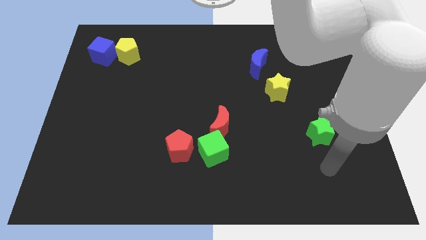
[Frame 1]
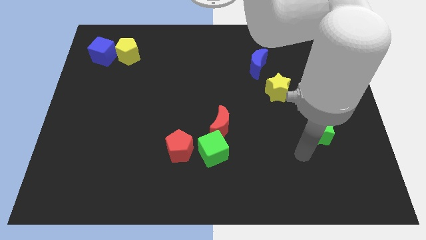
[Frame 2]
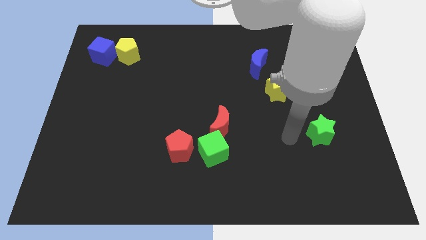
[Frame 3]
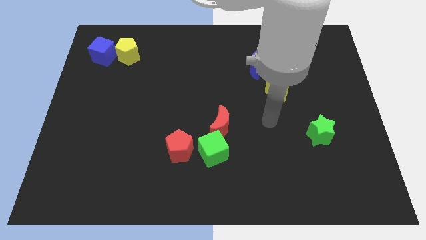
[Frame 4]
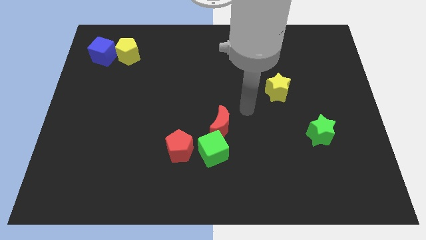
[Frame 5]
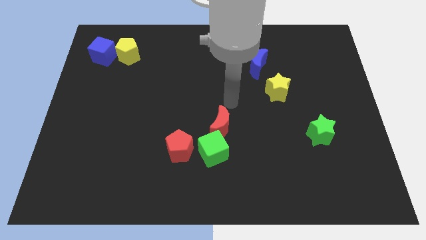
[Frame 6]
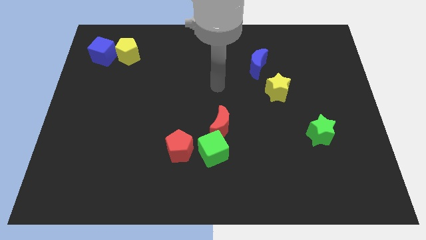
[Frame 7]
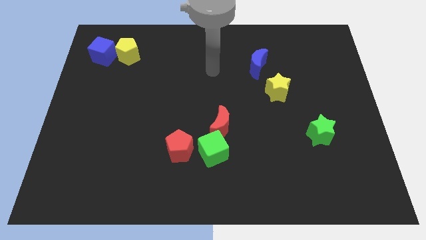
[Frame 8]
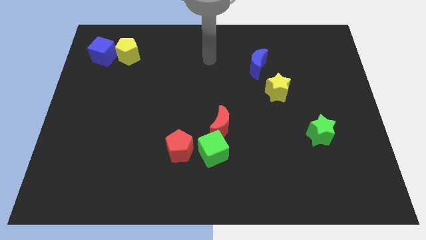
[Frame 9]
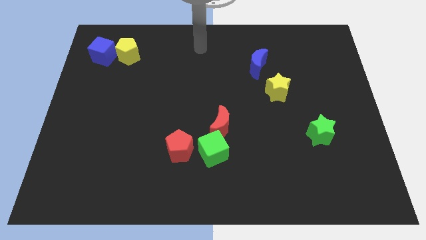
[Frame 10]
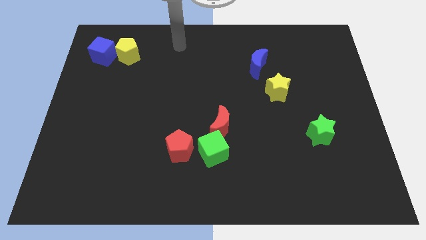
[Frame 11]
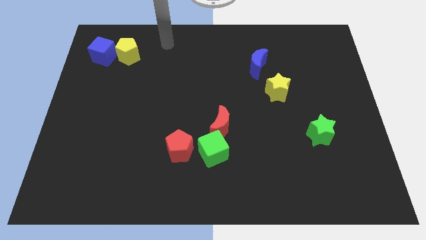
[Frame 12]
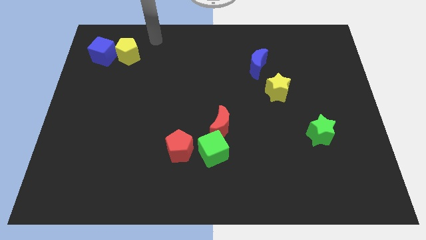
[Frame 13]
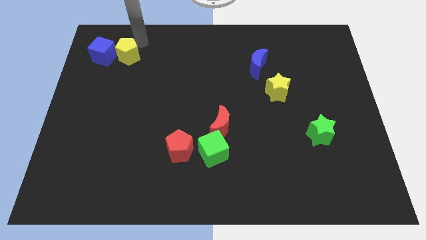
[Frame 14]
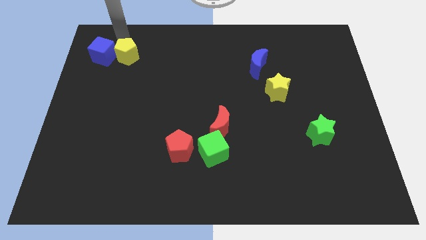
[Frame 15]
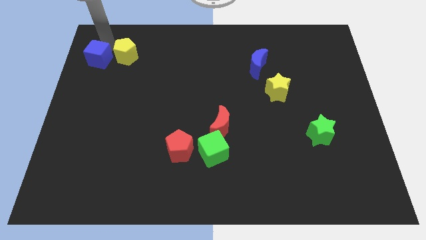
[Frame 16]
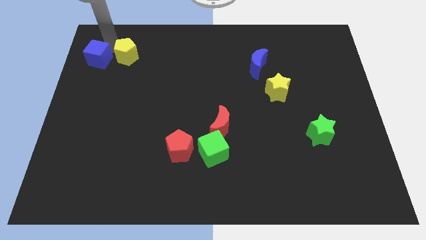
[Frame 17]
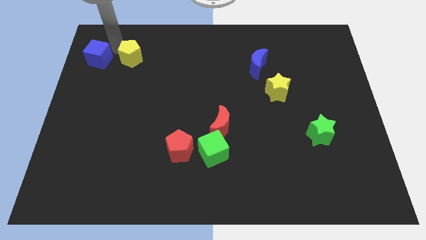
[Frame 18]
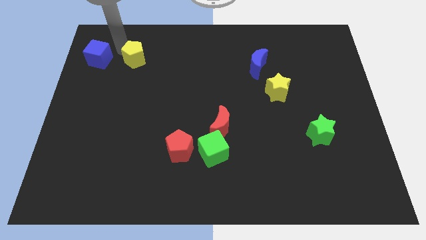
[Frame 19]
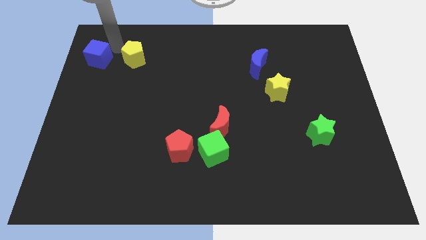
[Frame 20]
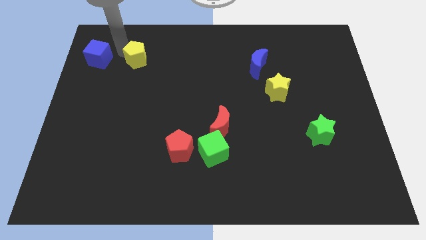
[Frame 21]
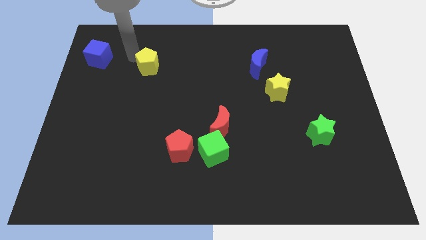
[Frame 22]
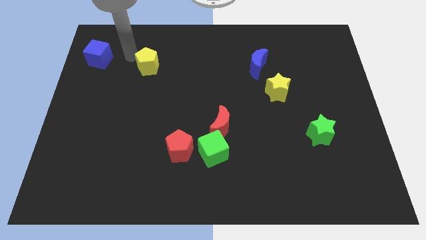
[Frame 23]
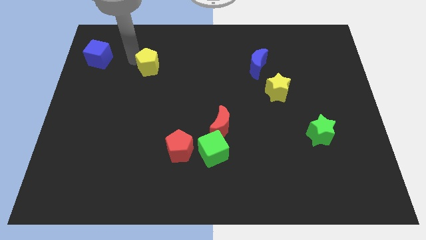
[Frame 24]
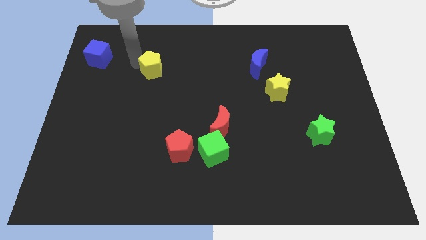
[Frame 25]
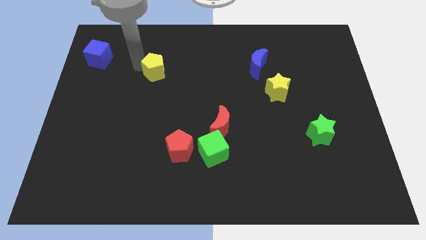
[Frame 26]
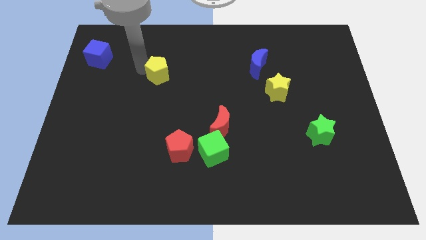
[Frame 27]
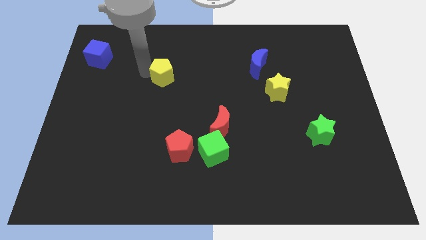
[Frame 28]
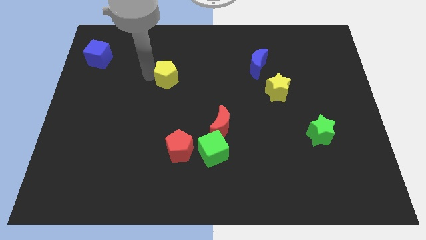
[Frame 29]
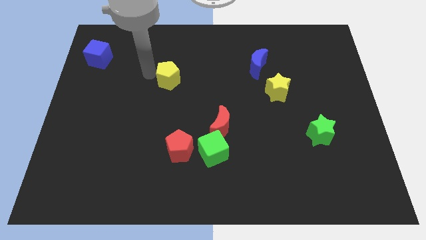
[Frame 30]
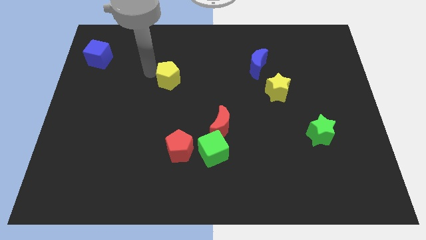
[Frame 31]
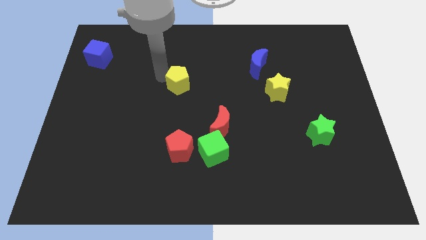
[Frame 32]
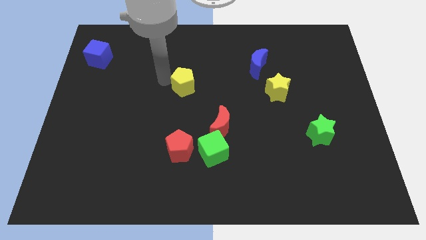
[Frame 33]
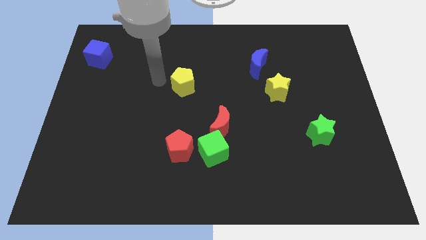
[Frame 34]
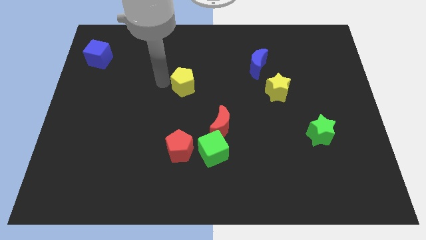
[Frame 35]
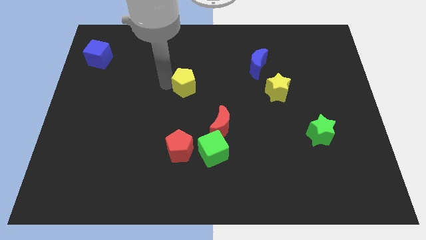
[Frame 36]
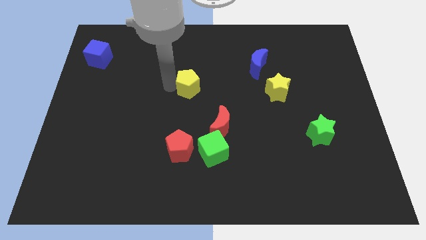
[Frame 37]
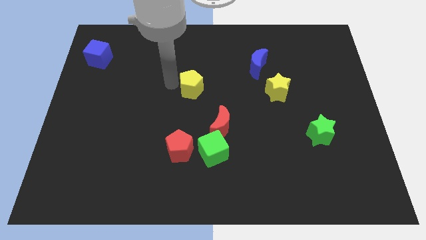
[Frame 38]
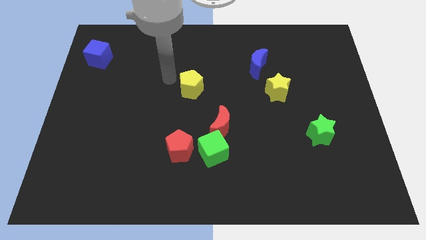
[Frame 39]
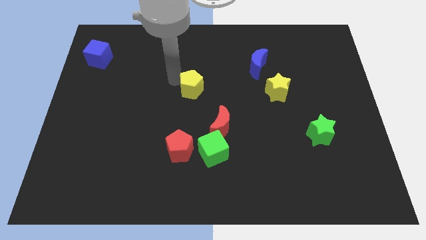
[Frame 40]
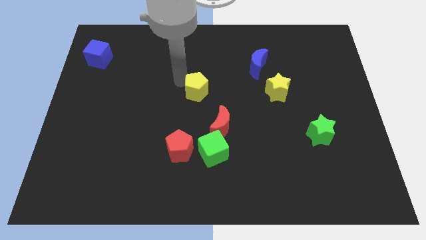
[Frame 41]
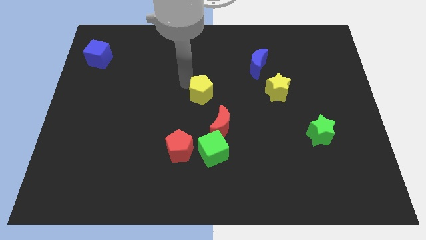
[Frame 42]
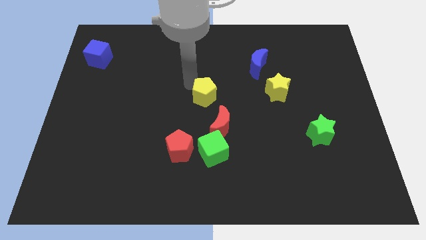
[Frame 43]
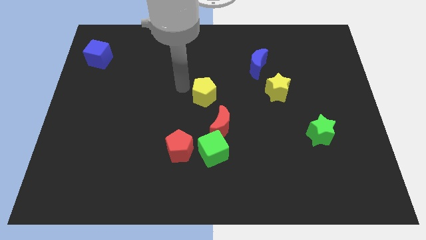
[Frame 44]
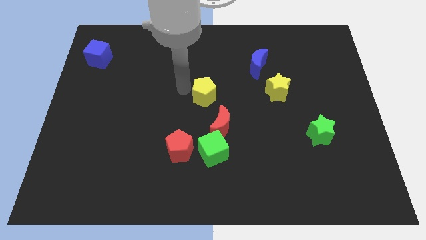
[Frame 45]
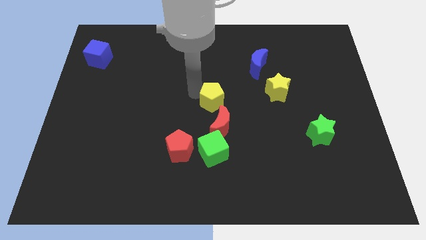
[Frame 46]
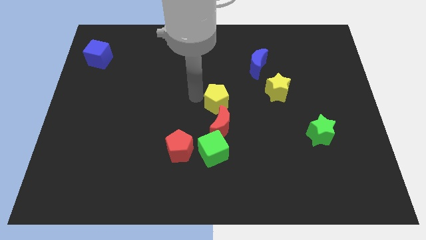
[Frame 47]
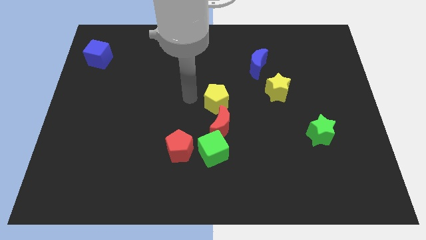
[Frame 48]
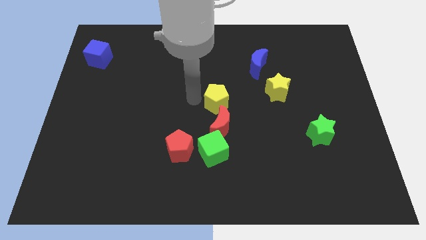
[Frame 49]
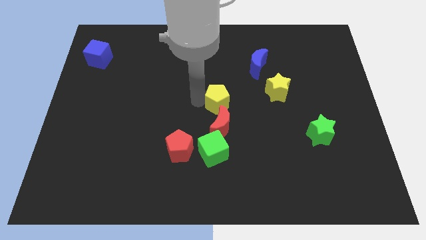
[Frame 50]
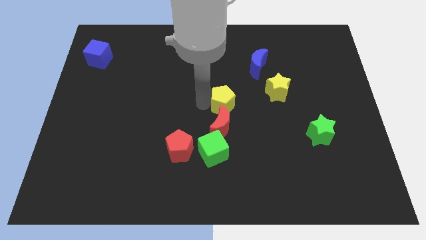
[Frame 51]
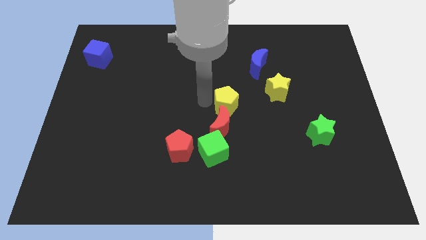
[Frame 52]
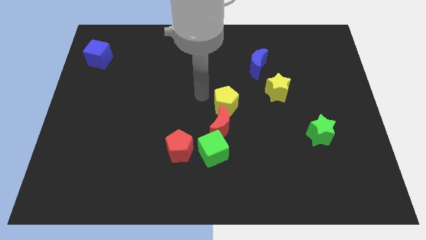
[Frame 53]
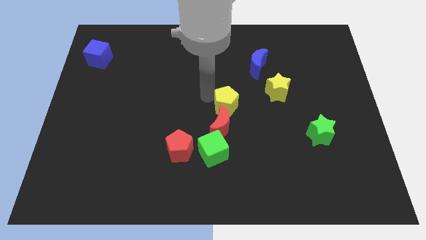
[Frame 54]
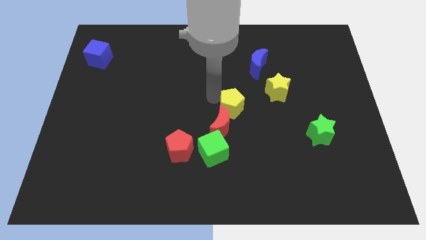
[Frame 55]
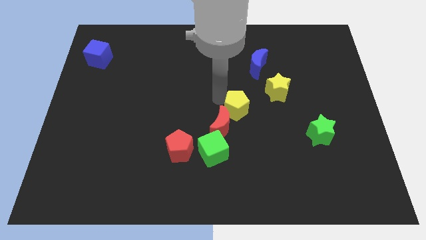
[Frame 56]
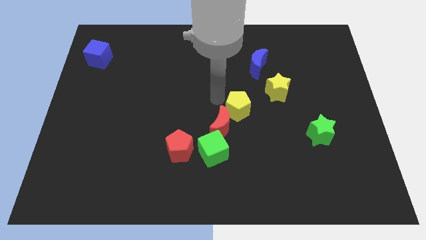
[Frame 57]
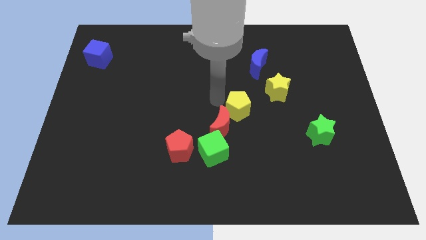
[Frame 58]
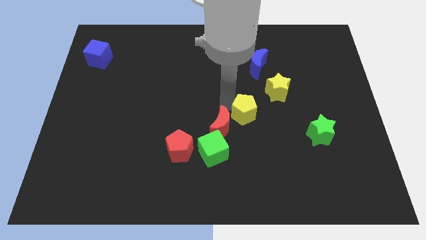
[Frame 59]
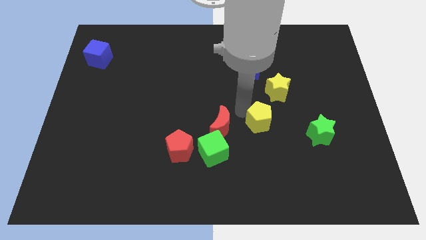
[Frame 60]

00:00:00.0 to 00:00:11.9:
push the yellow pentagon just left of the green star

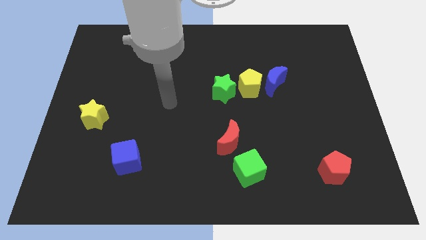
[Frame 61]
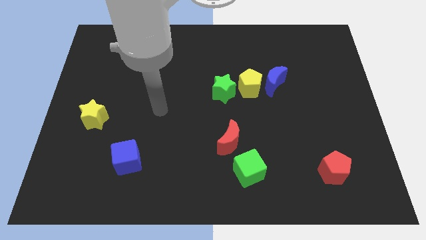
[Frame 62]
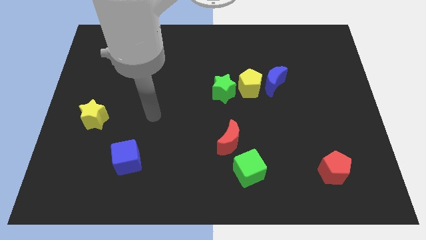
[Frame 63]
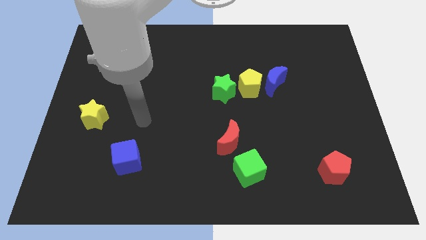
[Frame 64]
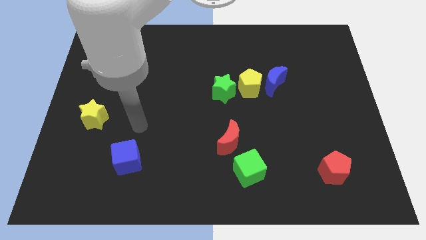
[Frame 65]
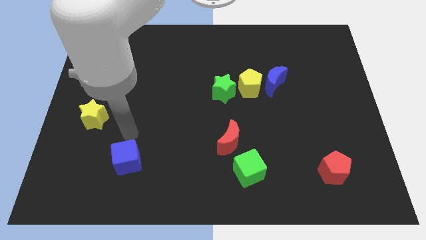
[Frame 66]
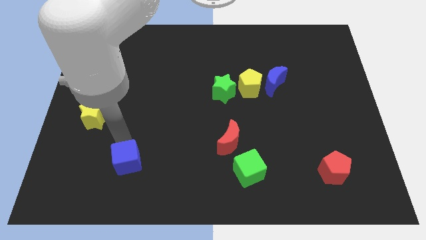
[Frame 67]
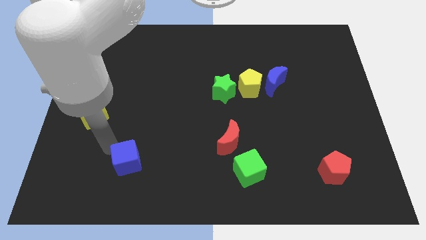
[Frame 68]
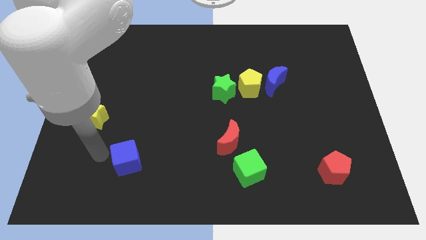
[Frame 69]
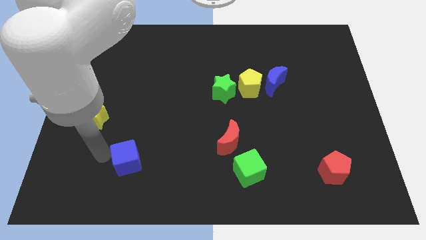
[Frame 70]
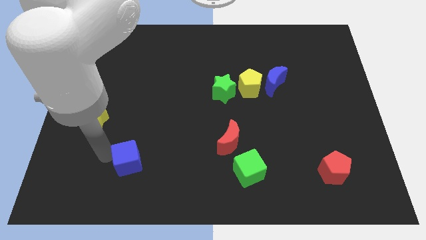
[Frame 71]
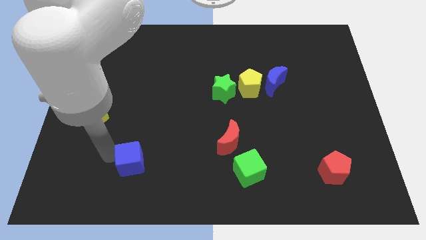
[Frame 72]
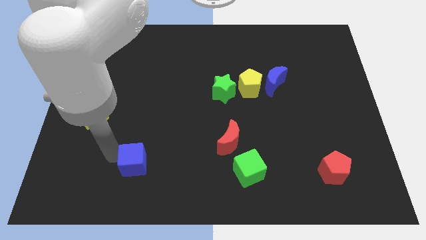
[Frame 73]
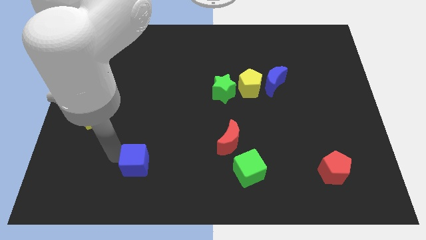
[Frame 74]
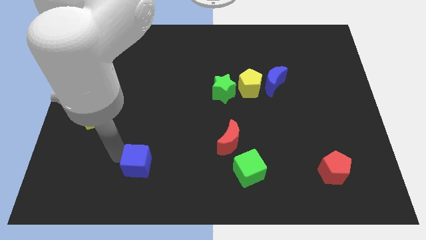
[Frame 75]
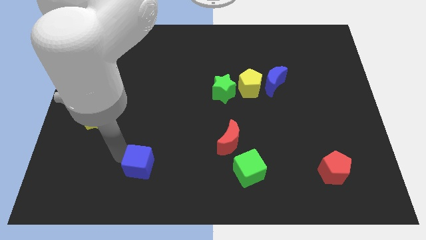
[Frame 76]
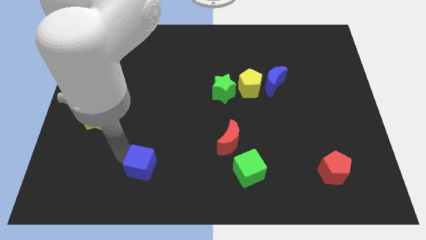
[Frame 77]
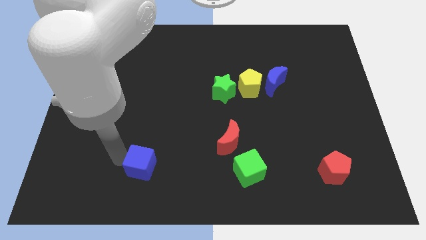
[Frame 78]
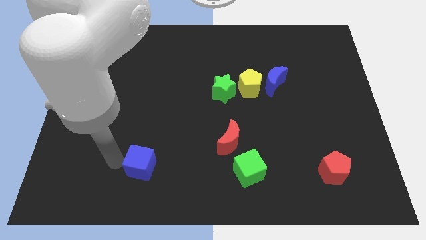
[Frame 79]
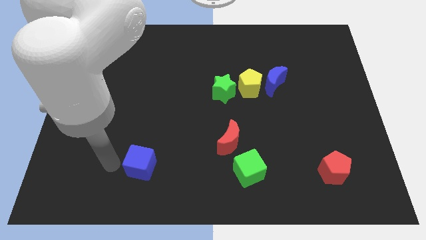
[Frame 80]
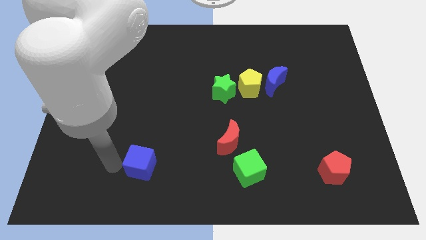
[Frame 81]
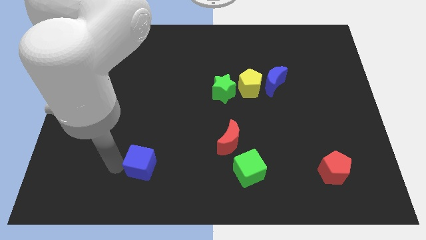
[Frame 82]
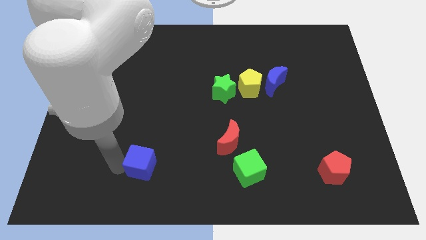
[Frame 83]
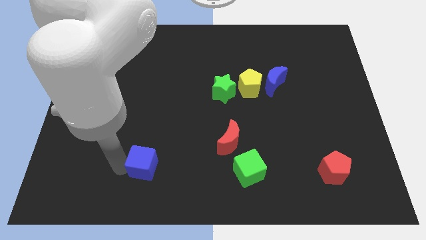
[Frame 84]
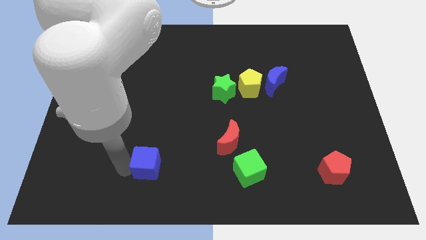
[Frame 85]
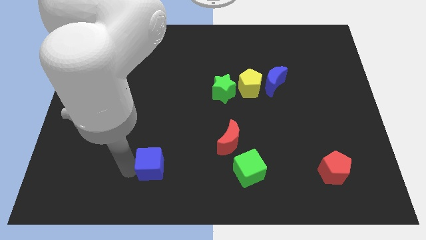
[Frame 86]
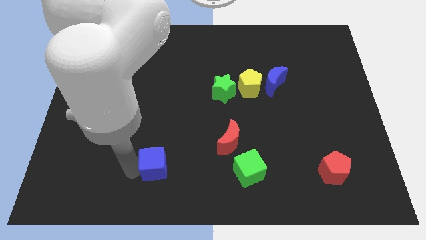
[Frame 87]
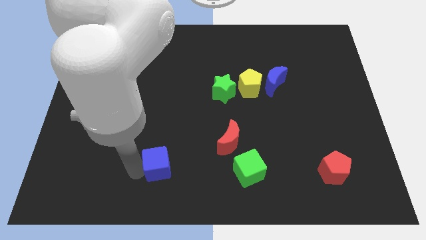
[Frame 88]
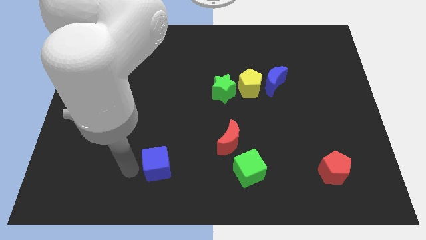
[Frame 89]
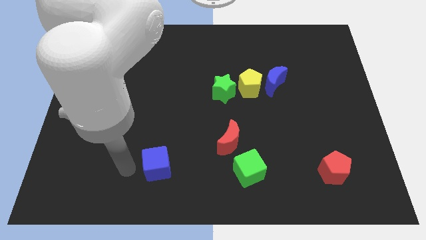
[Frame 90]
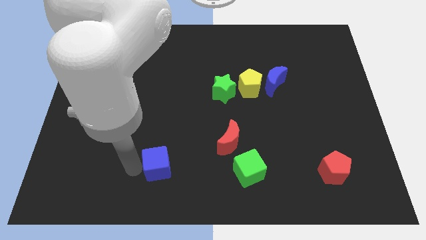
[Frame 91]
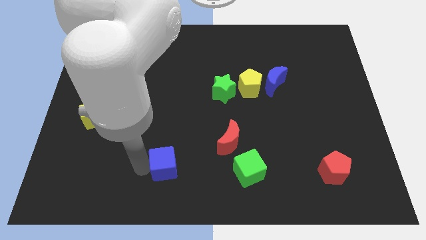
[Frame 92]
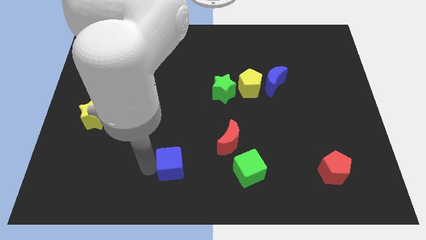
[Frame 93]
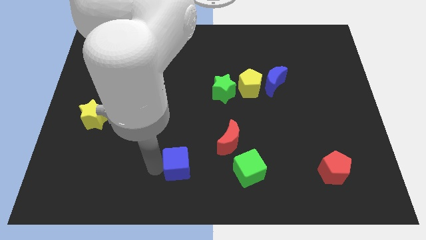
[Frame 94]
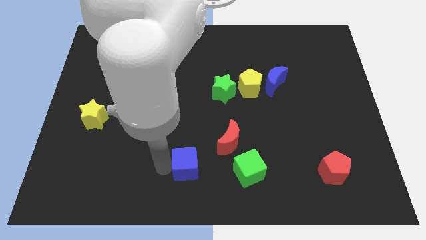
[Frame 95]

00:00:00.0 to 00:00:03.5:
push the blue cube diagonally down and to the left of the red moon
